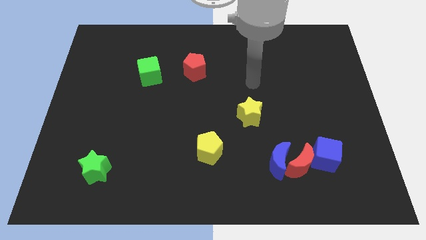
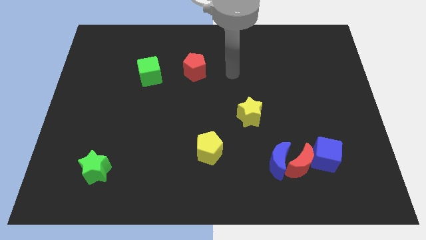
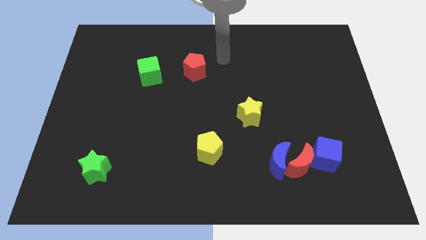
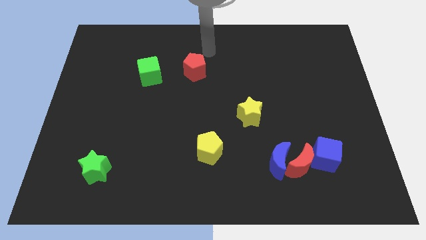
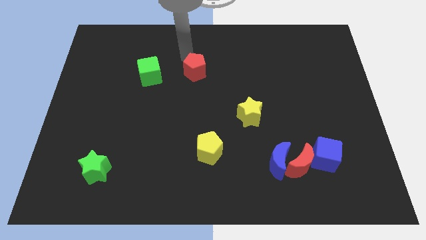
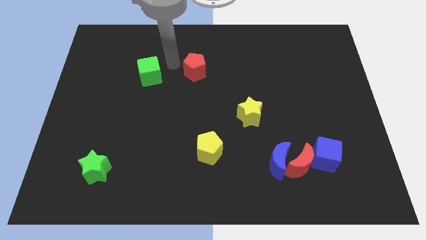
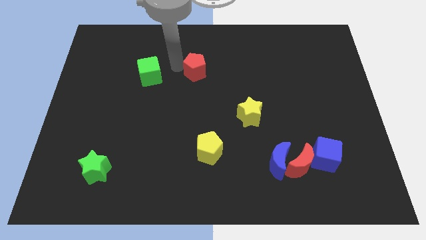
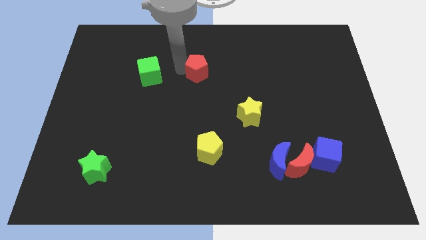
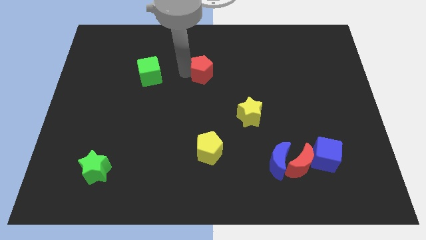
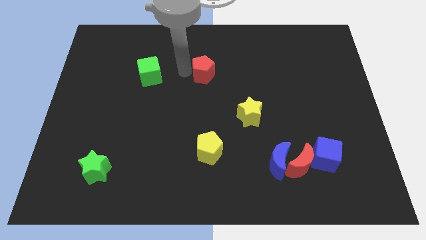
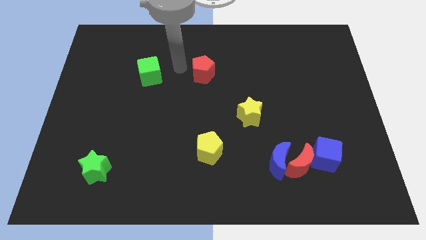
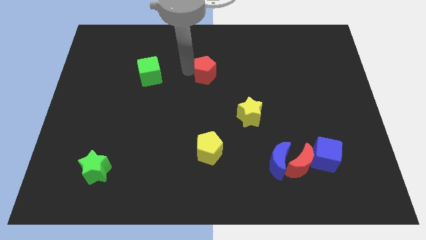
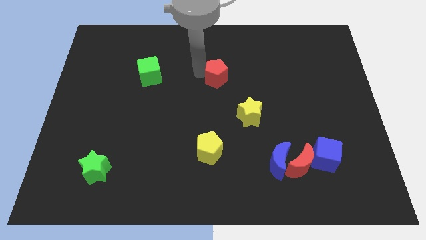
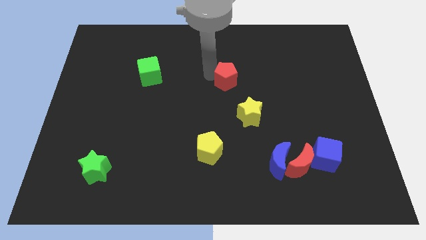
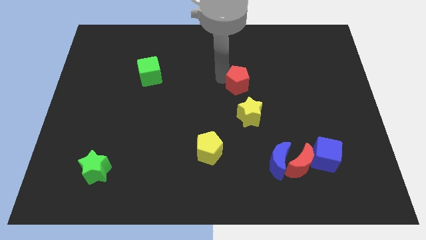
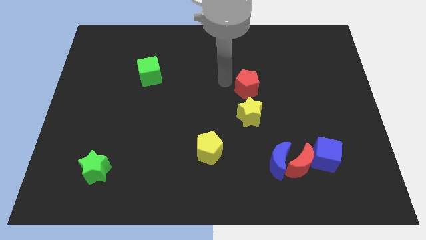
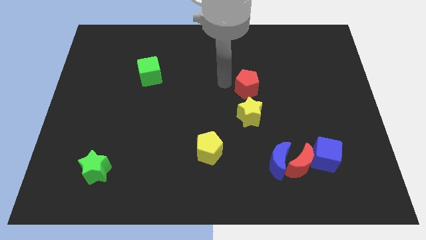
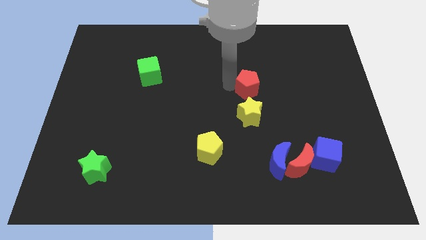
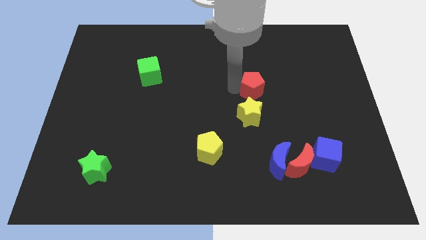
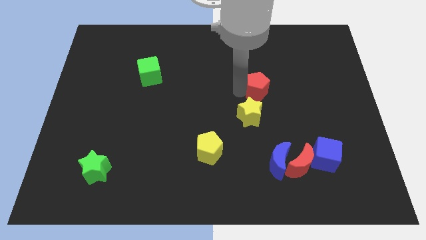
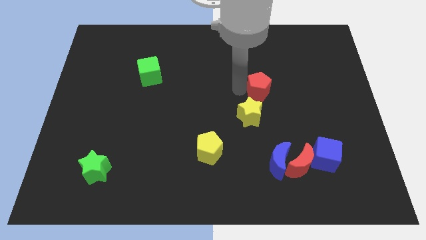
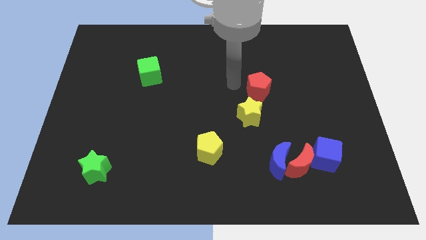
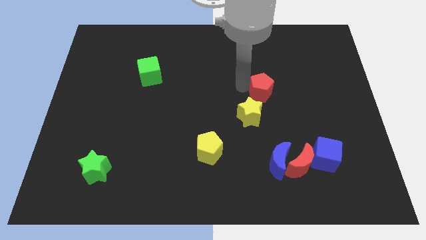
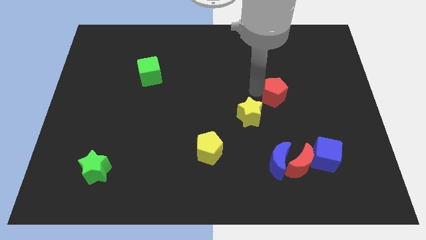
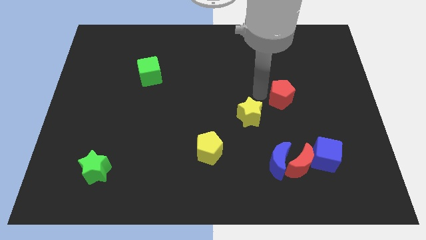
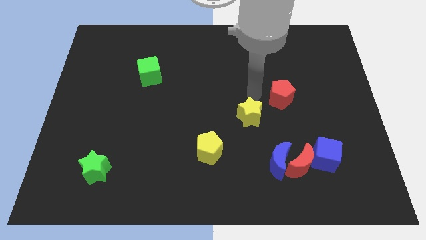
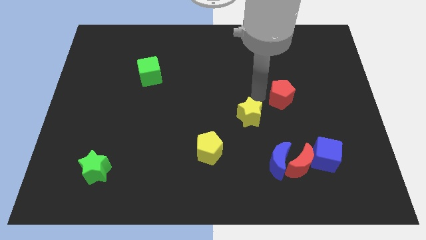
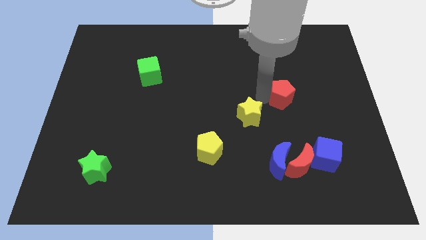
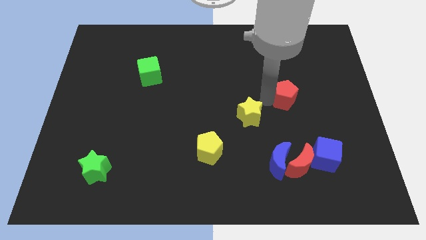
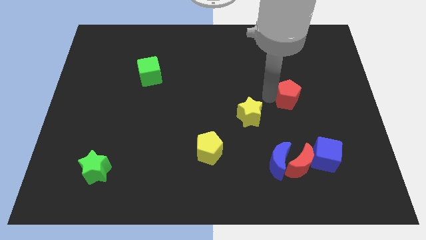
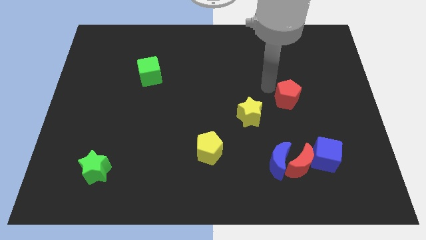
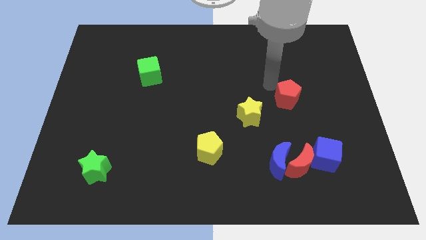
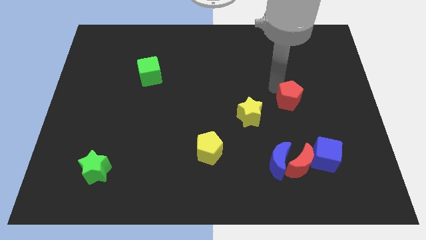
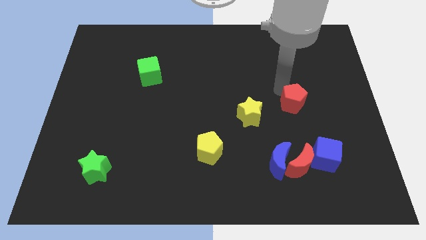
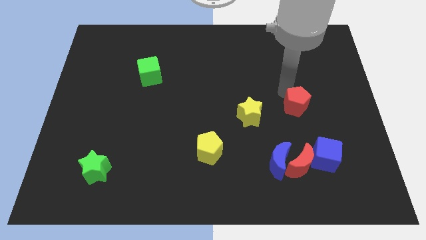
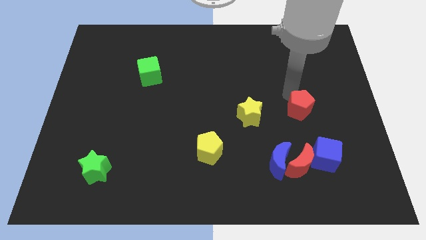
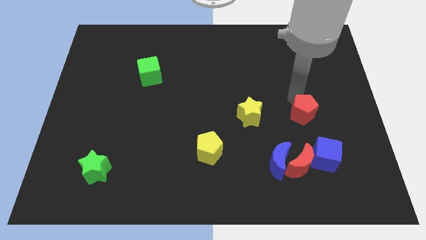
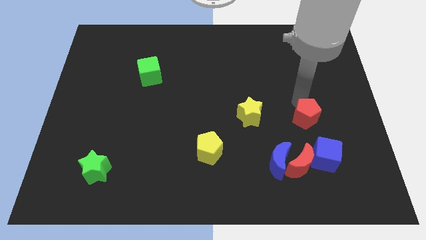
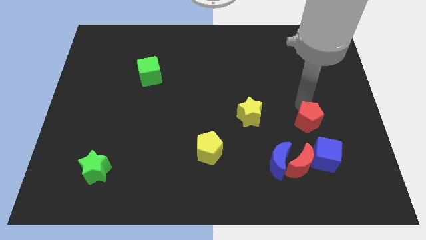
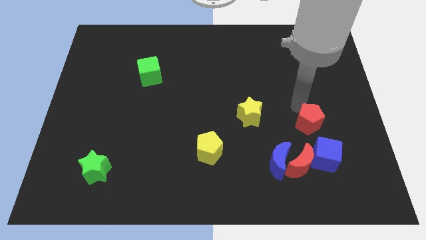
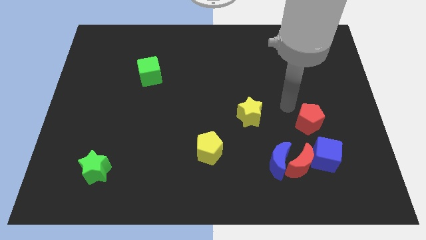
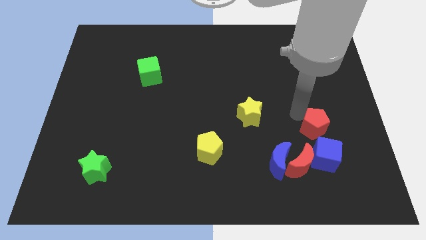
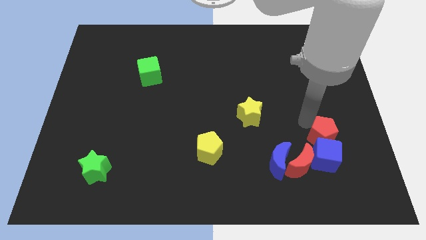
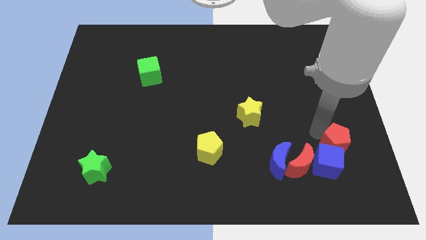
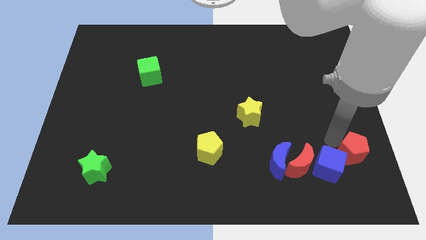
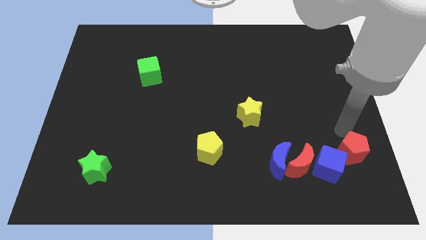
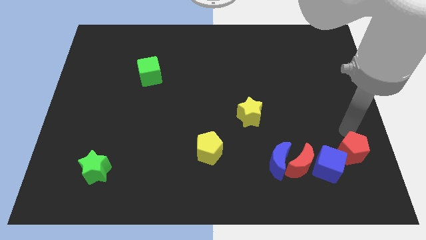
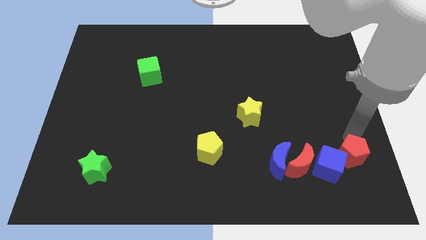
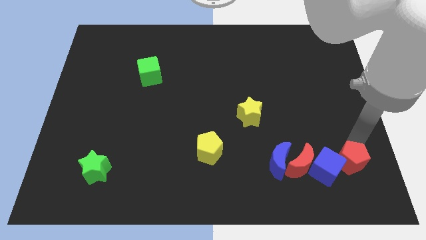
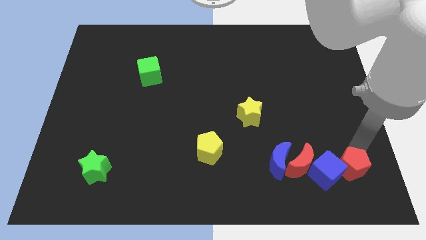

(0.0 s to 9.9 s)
slide the red pentagon diagonally down and to the right of the blue cube

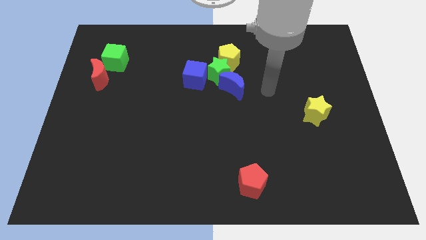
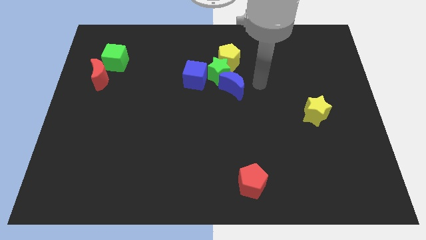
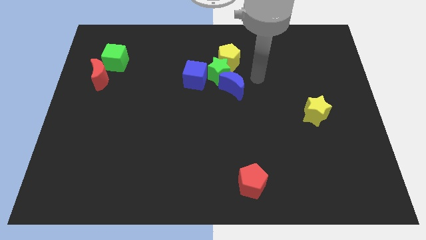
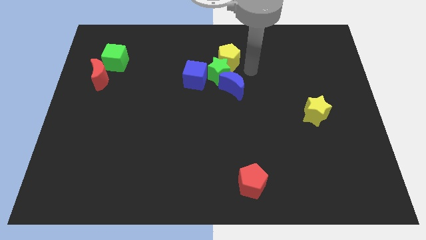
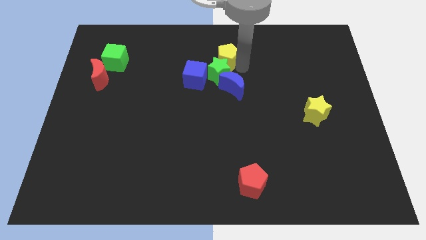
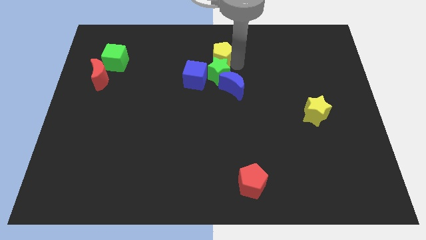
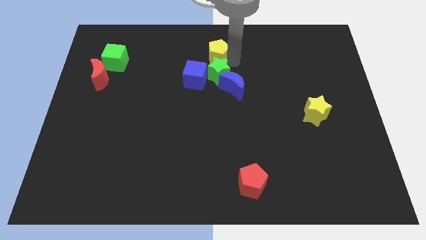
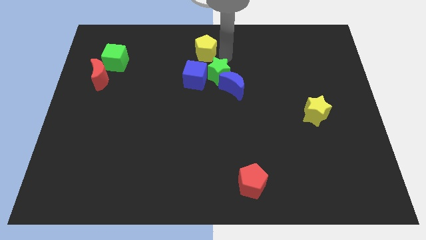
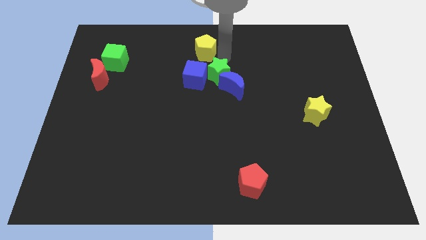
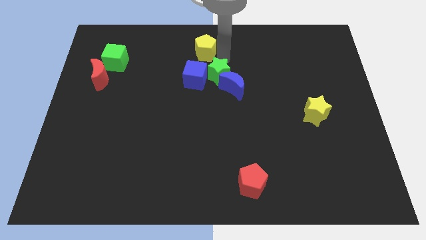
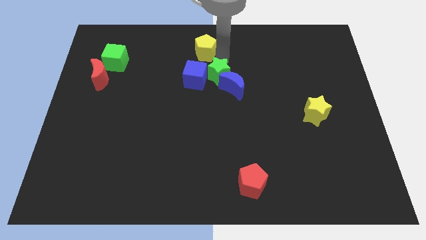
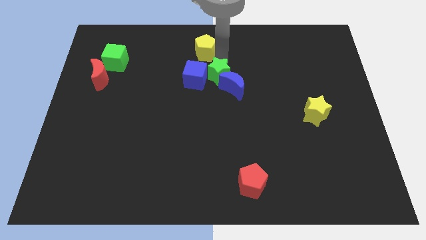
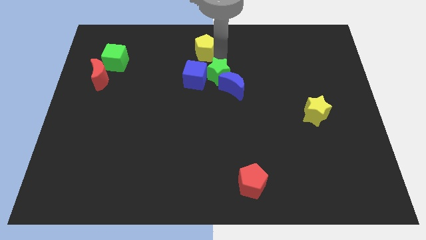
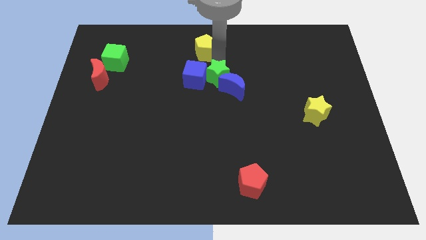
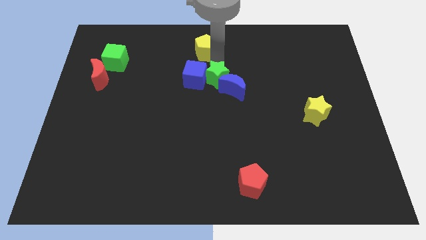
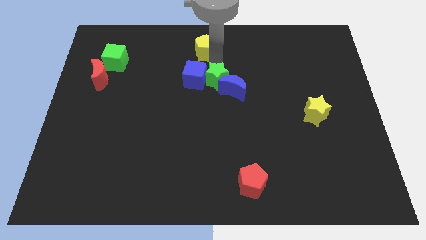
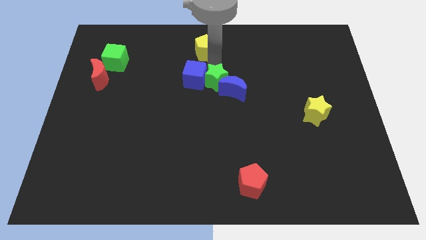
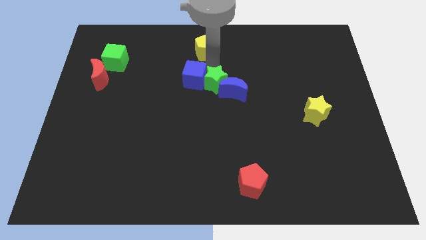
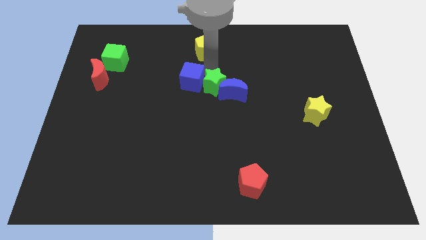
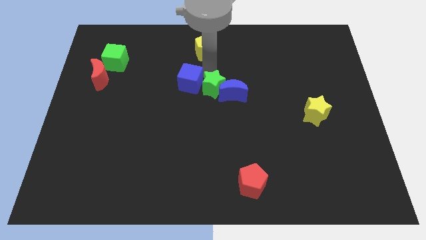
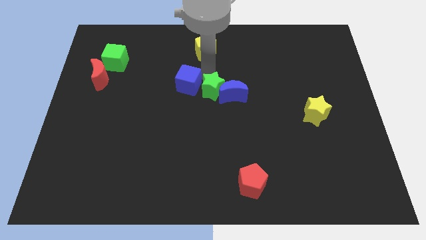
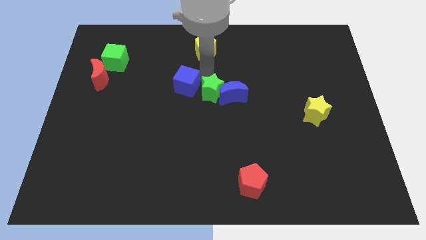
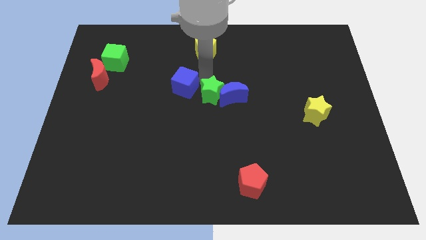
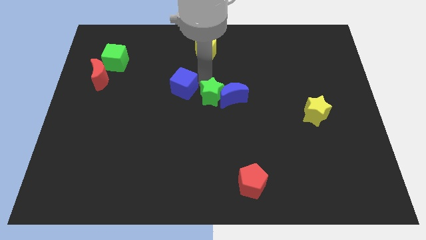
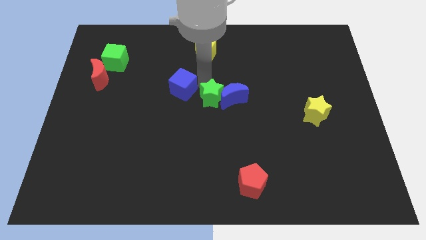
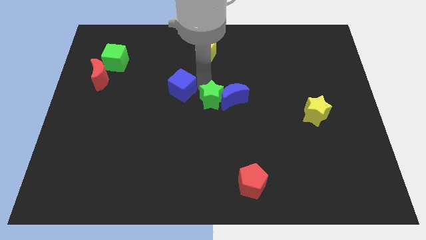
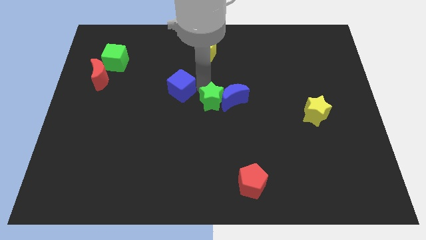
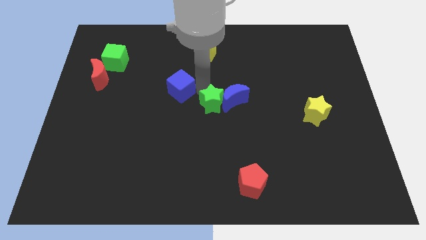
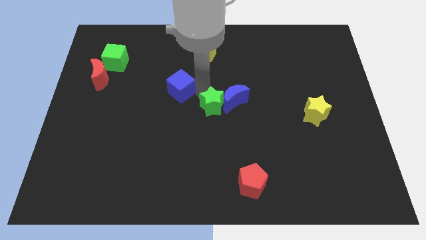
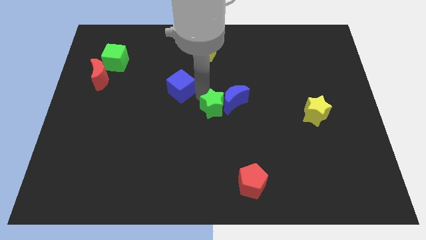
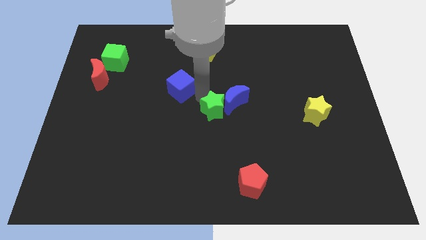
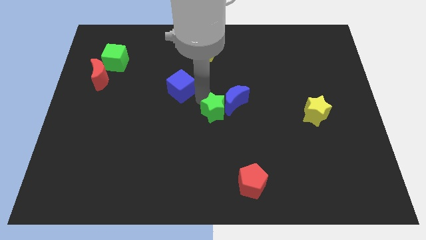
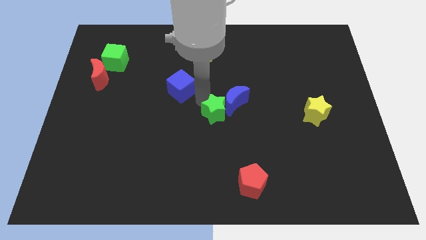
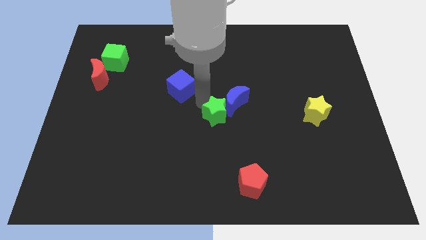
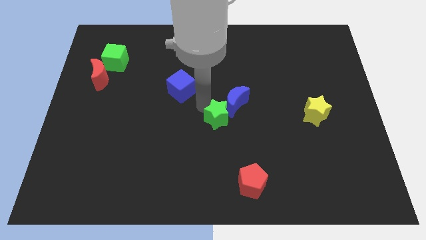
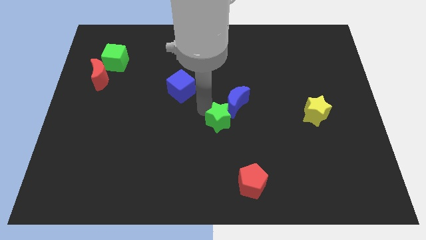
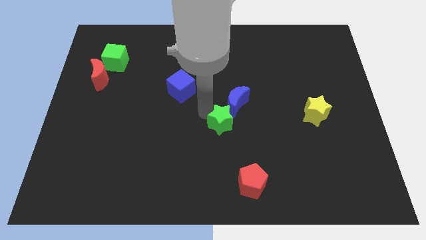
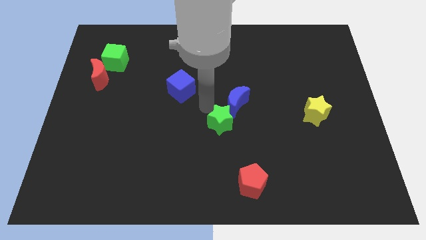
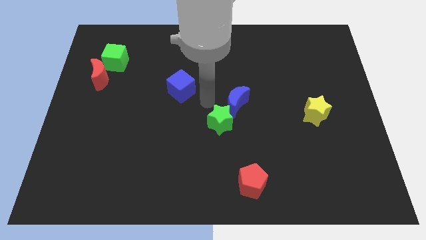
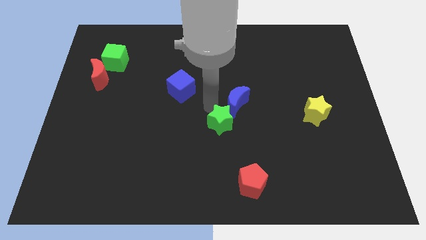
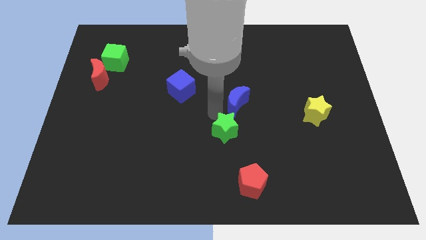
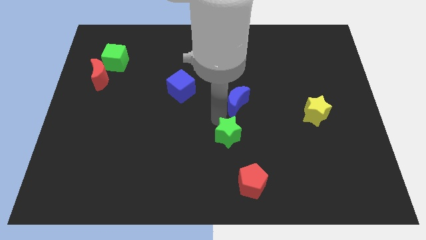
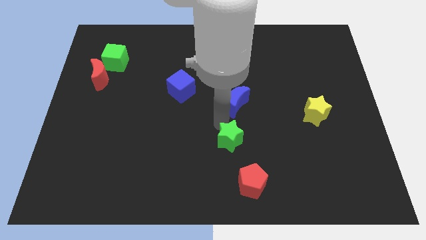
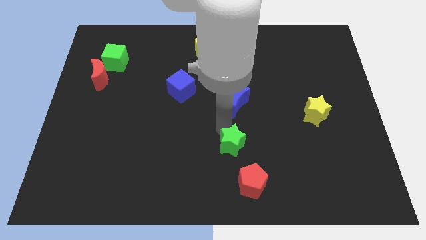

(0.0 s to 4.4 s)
push the green star diagonally up and to the left of the red pentagon
